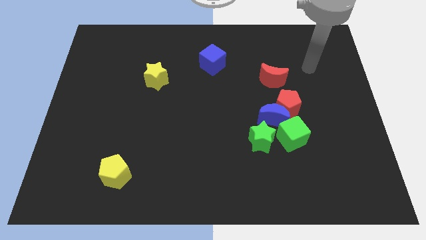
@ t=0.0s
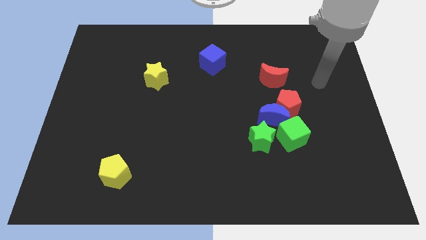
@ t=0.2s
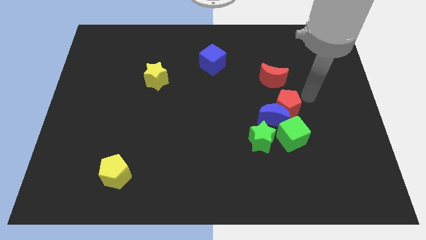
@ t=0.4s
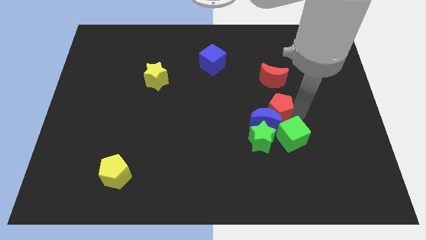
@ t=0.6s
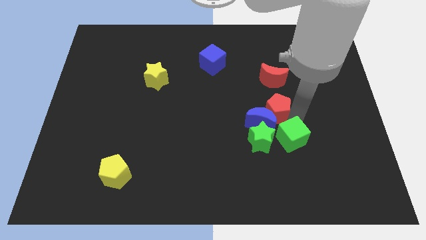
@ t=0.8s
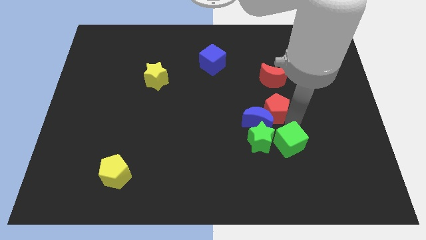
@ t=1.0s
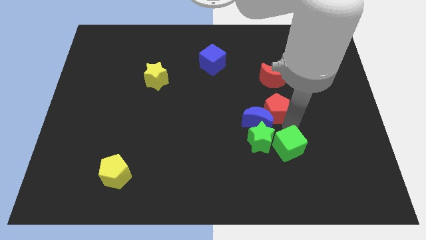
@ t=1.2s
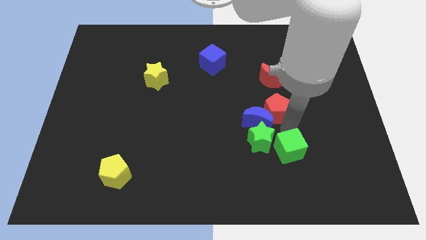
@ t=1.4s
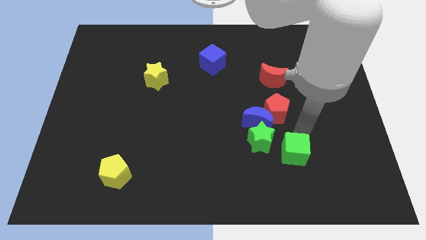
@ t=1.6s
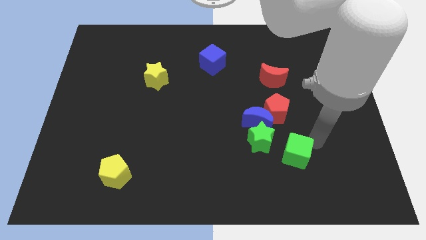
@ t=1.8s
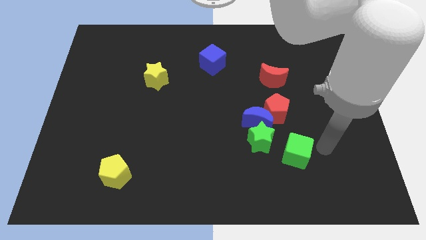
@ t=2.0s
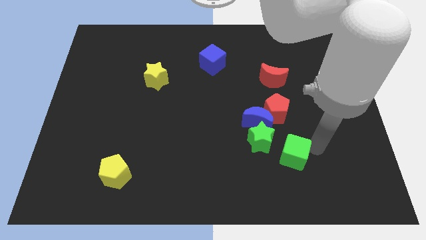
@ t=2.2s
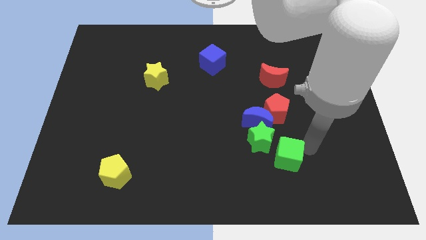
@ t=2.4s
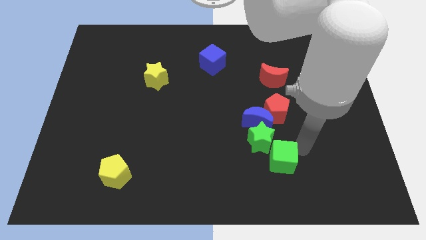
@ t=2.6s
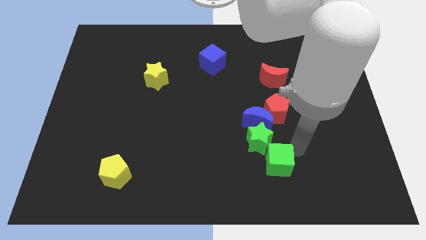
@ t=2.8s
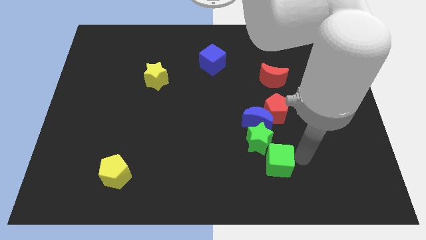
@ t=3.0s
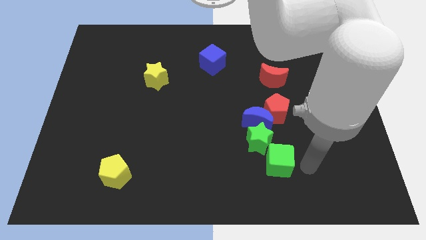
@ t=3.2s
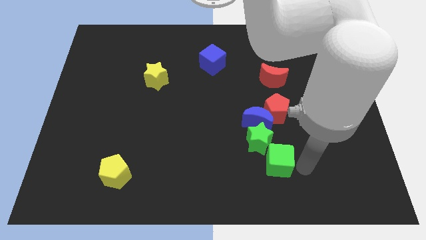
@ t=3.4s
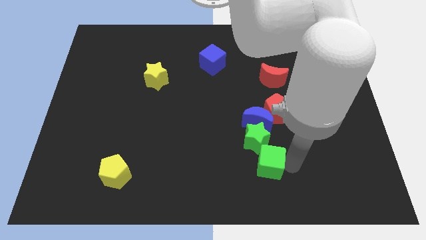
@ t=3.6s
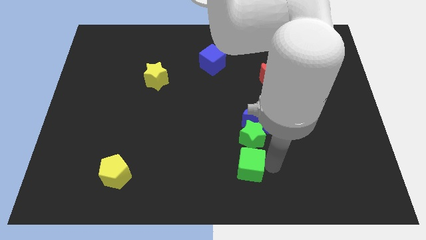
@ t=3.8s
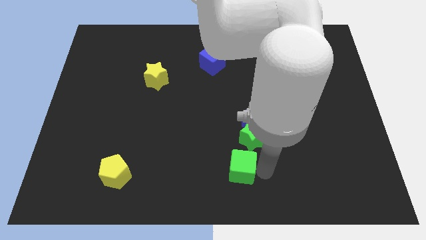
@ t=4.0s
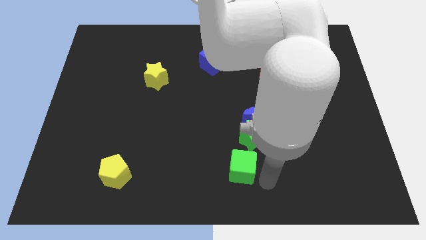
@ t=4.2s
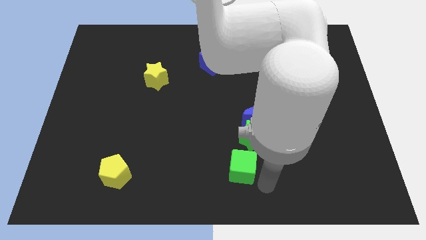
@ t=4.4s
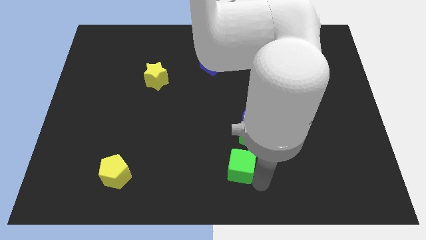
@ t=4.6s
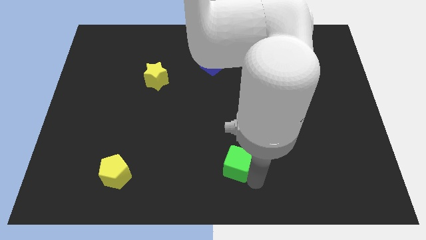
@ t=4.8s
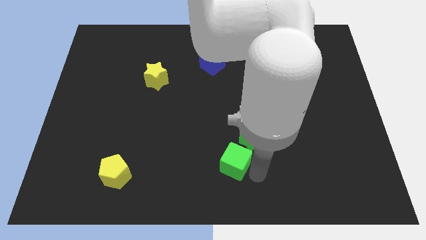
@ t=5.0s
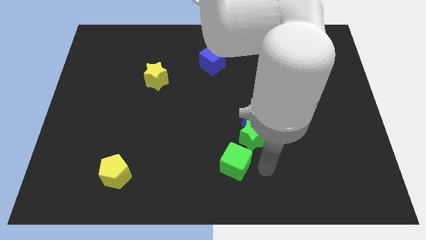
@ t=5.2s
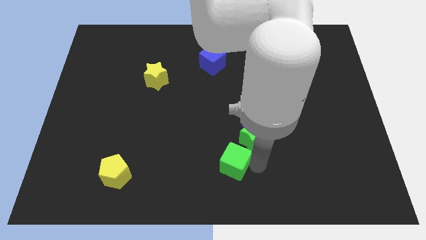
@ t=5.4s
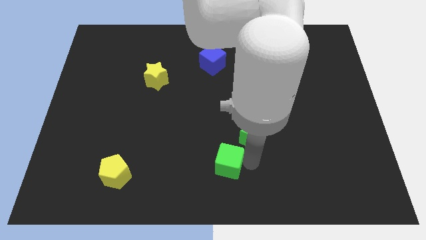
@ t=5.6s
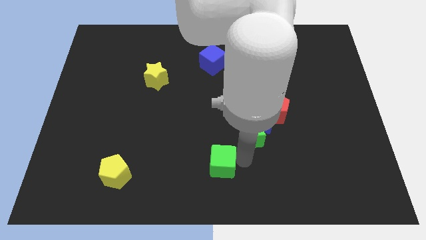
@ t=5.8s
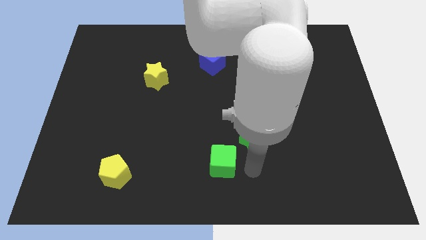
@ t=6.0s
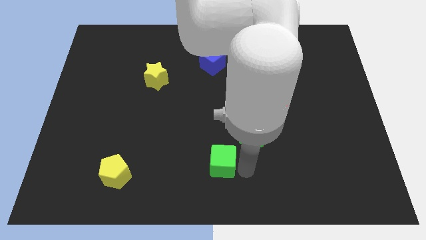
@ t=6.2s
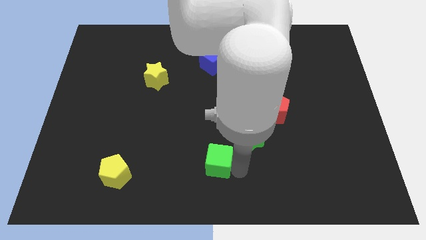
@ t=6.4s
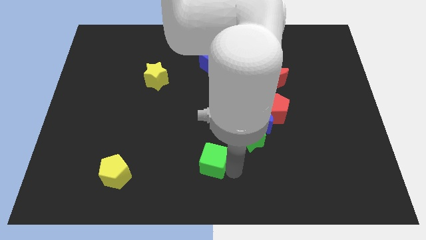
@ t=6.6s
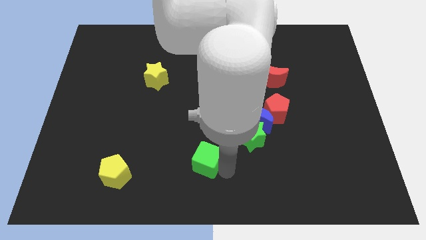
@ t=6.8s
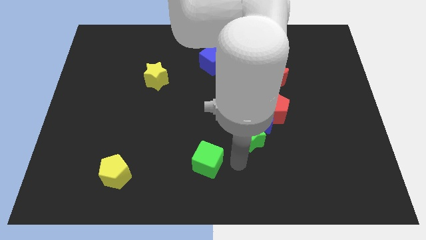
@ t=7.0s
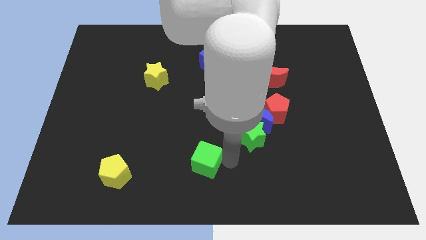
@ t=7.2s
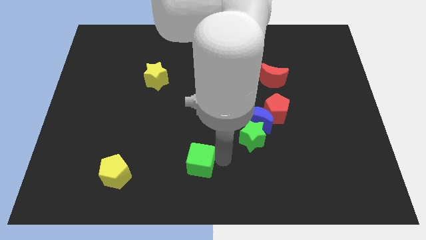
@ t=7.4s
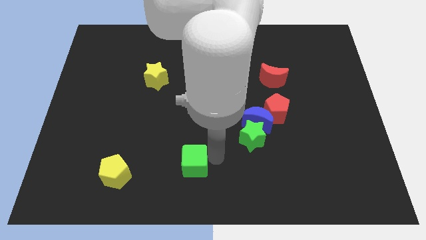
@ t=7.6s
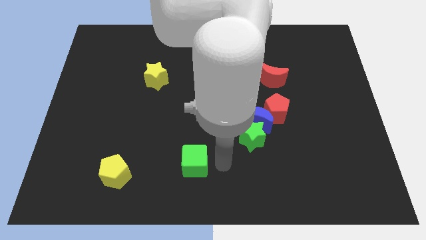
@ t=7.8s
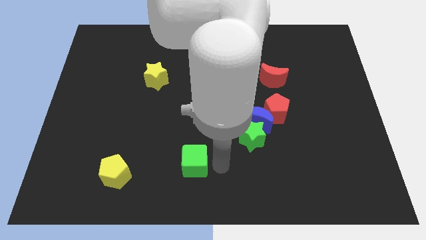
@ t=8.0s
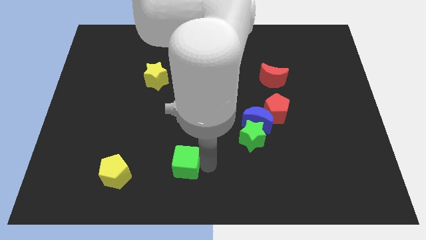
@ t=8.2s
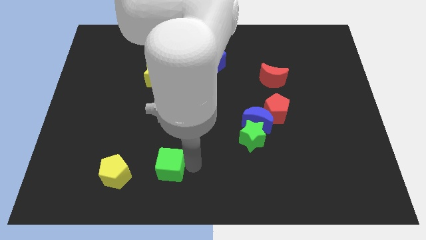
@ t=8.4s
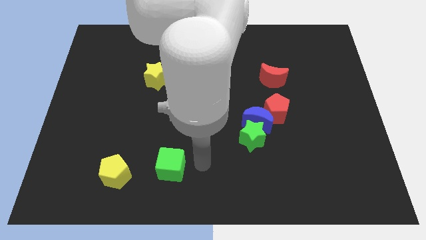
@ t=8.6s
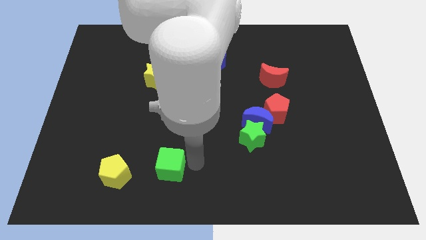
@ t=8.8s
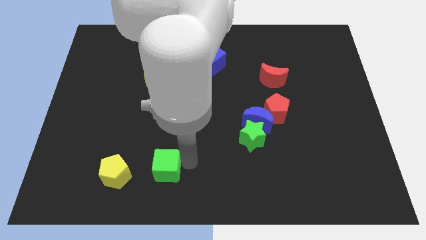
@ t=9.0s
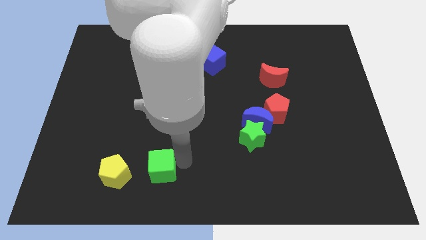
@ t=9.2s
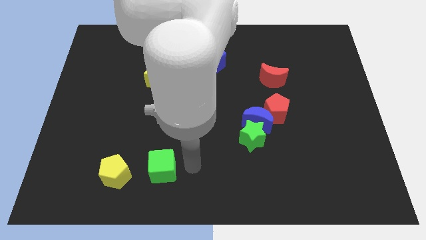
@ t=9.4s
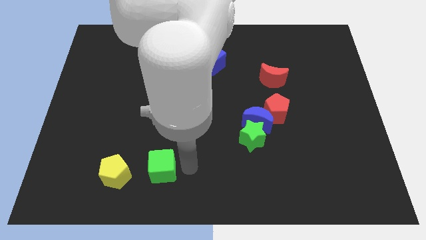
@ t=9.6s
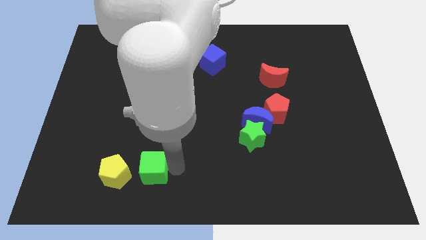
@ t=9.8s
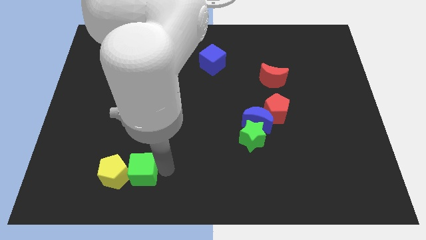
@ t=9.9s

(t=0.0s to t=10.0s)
move the green cube close to the yellow pentagon

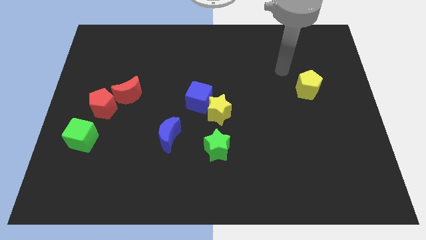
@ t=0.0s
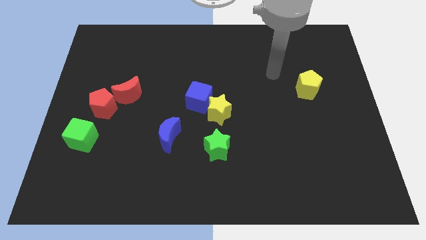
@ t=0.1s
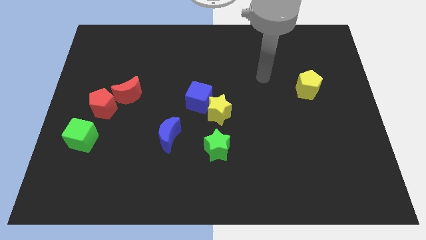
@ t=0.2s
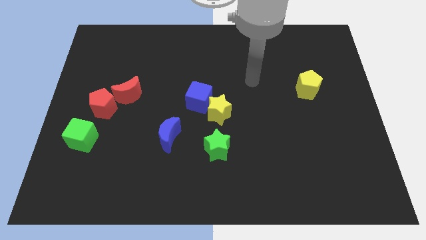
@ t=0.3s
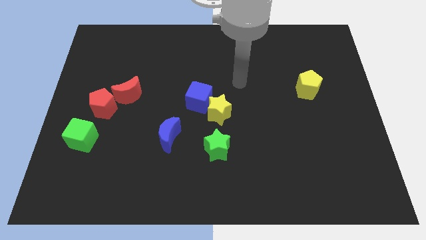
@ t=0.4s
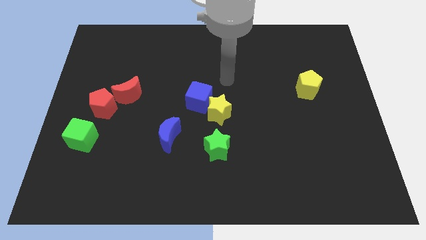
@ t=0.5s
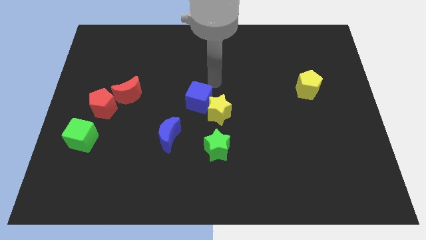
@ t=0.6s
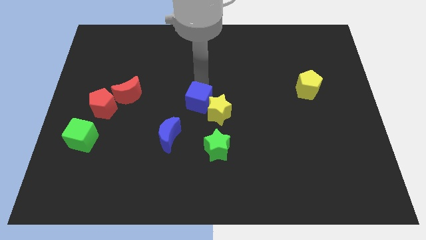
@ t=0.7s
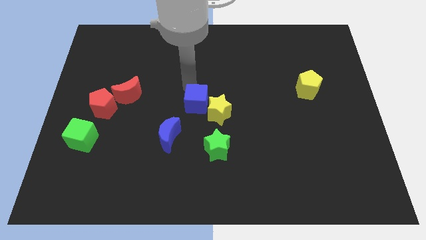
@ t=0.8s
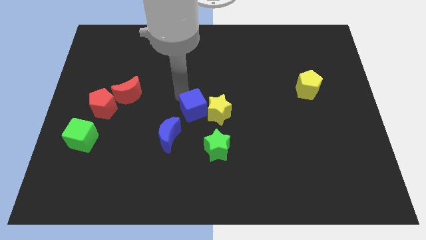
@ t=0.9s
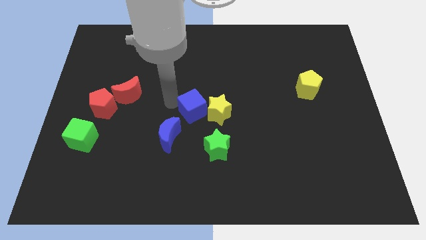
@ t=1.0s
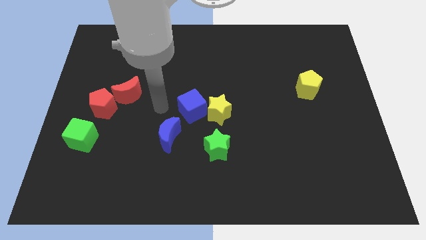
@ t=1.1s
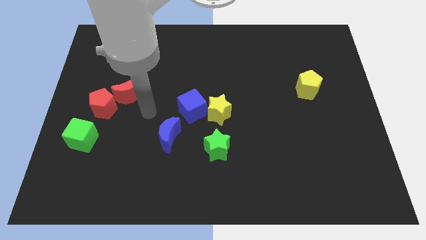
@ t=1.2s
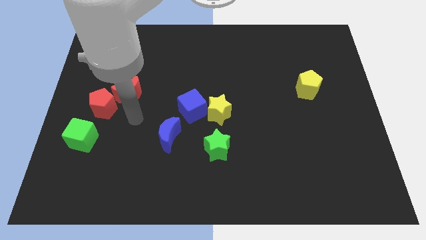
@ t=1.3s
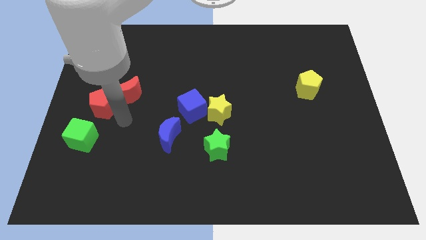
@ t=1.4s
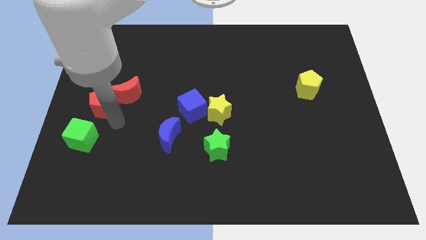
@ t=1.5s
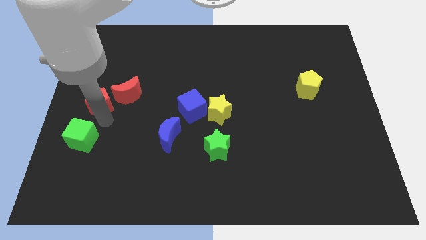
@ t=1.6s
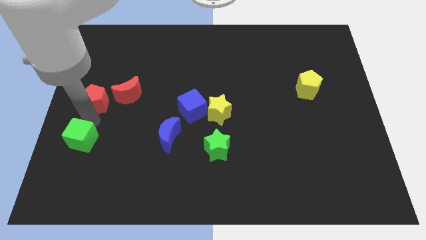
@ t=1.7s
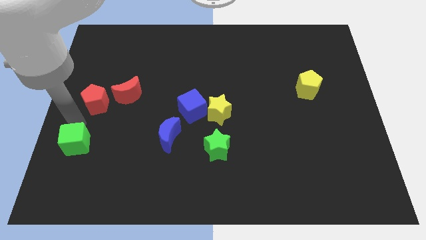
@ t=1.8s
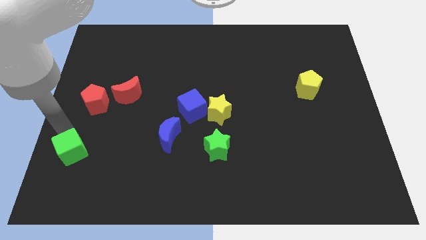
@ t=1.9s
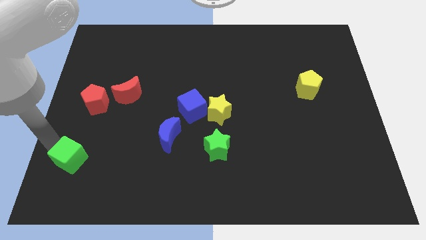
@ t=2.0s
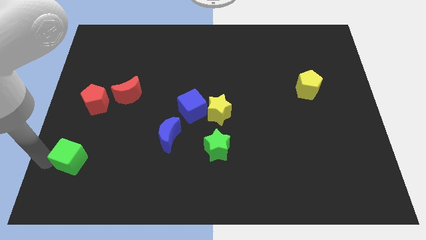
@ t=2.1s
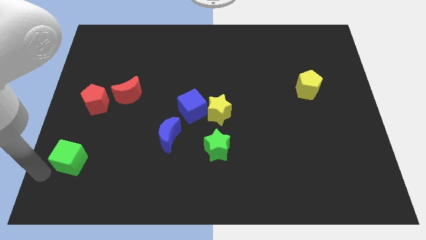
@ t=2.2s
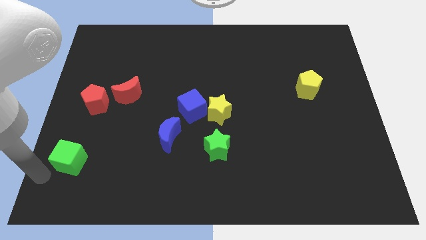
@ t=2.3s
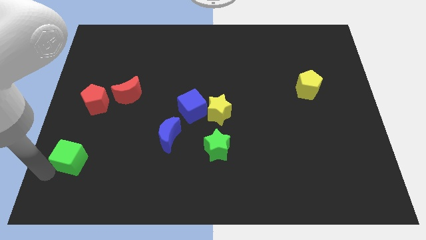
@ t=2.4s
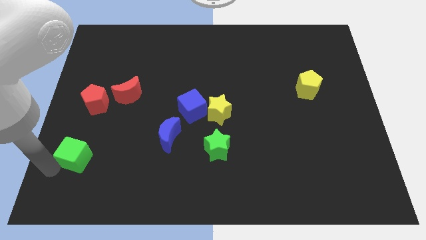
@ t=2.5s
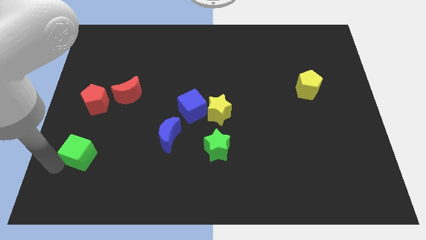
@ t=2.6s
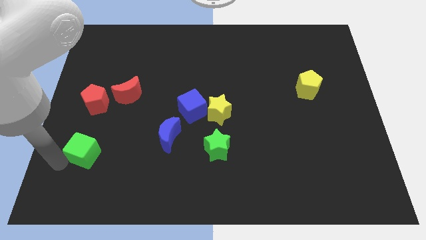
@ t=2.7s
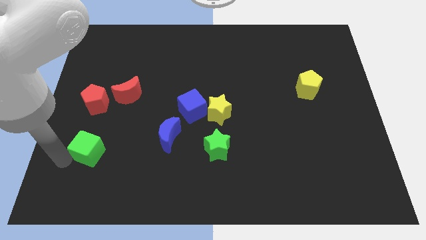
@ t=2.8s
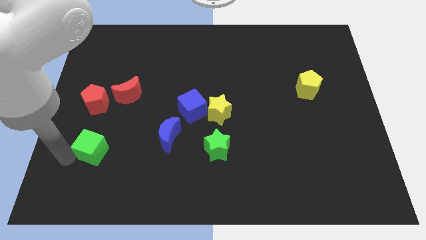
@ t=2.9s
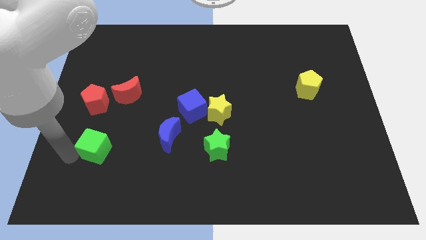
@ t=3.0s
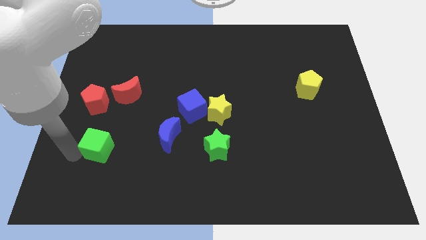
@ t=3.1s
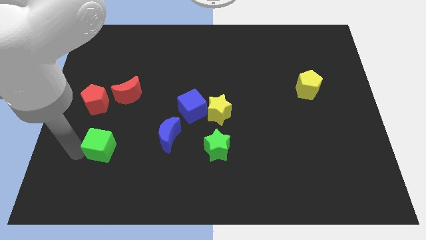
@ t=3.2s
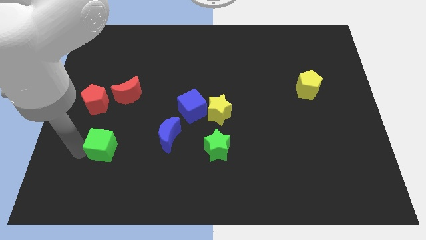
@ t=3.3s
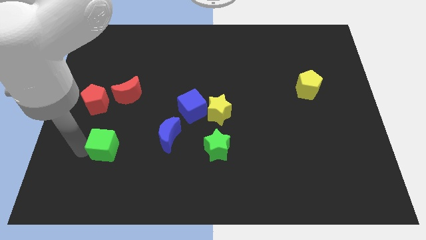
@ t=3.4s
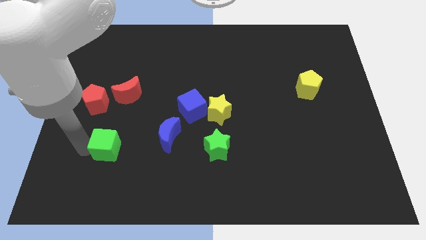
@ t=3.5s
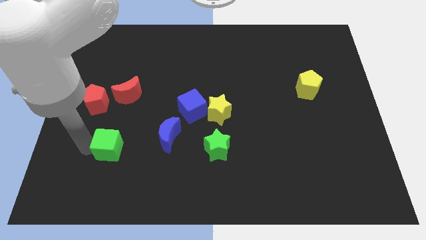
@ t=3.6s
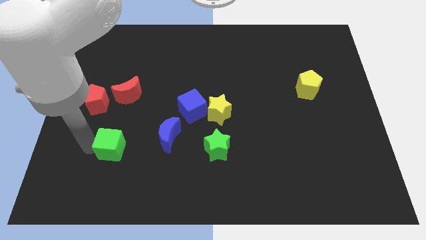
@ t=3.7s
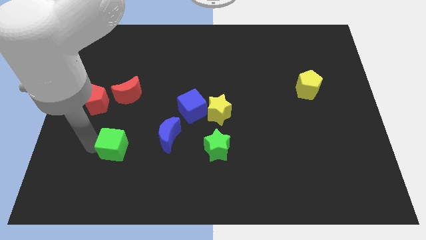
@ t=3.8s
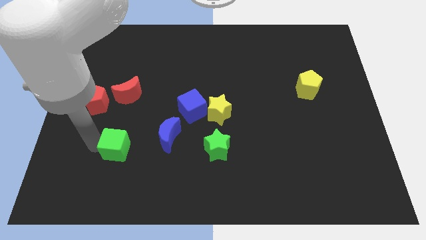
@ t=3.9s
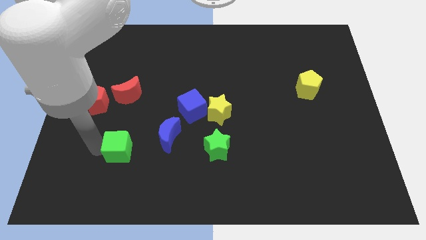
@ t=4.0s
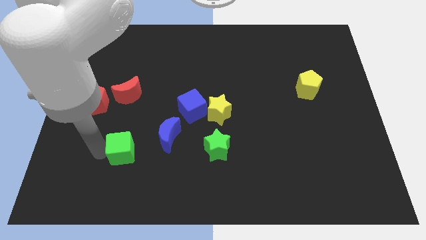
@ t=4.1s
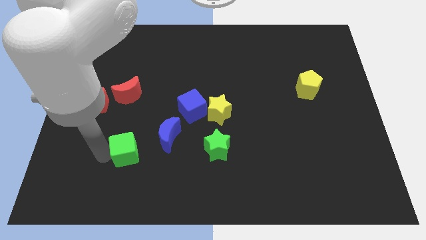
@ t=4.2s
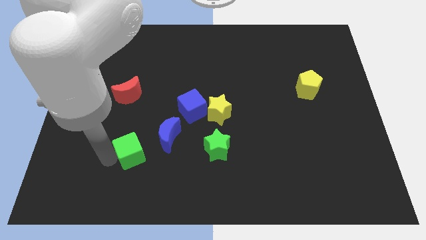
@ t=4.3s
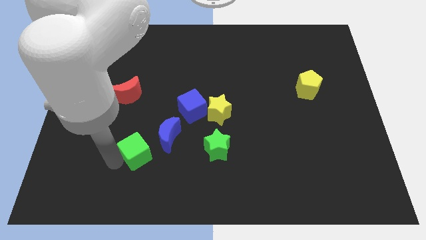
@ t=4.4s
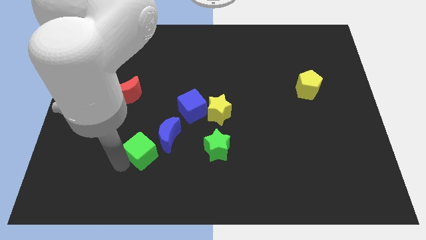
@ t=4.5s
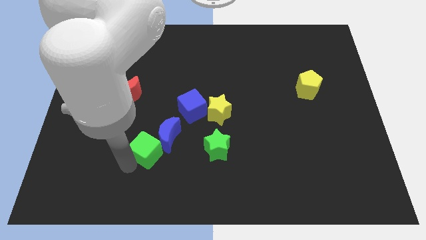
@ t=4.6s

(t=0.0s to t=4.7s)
slide the green cube close to the blue moon
